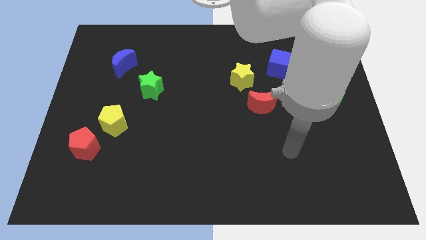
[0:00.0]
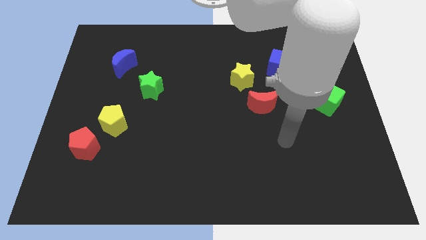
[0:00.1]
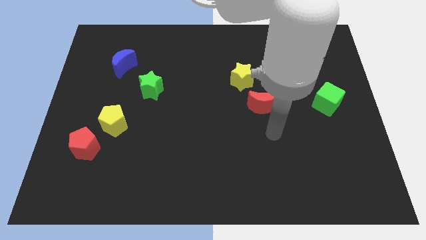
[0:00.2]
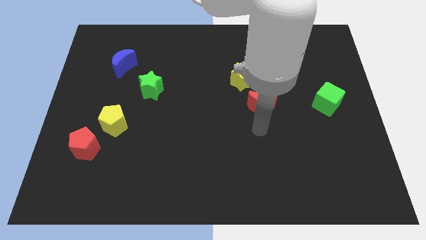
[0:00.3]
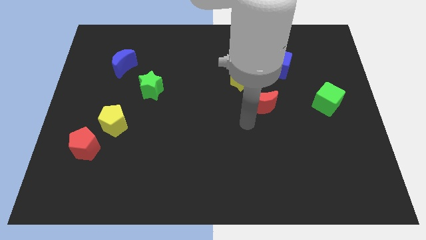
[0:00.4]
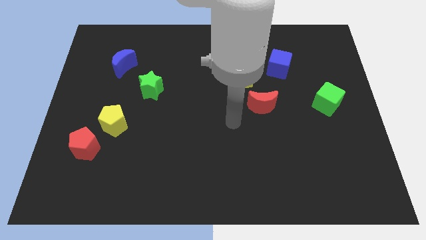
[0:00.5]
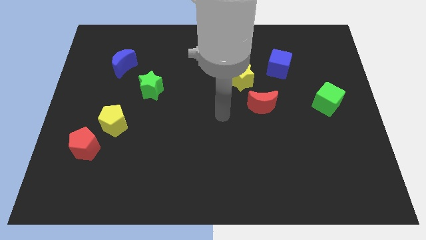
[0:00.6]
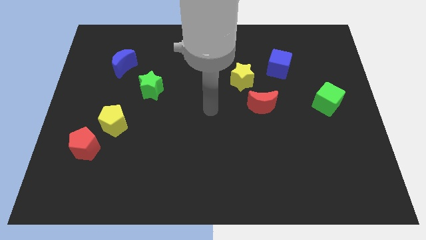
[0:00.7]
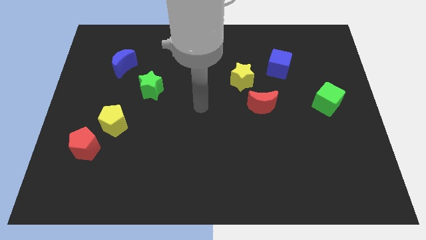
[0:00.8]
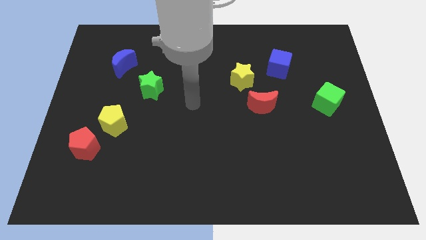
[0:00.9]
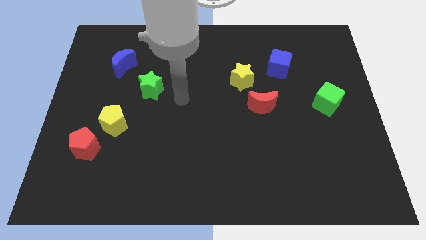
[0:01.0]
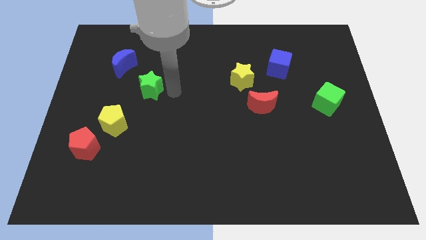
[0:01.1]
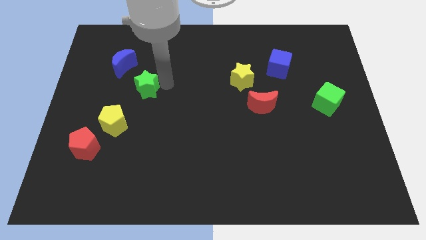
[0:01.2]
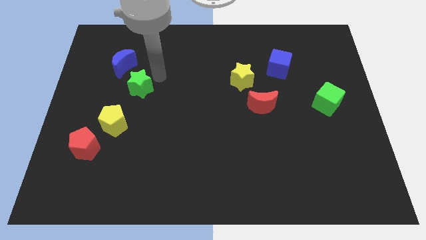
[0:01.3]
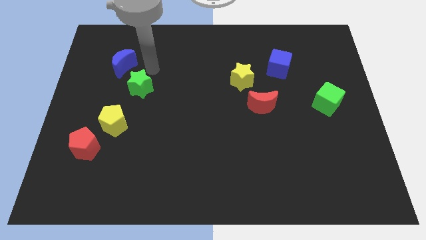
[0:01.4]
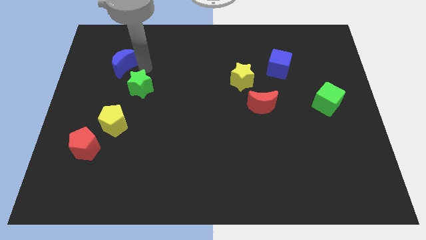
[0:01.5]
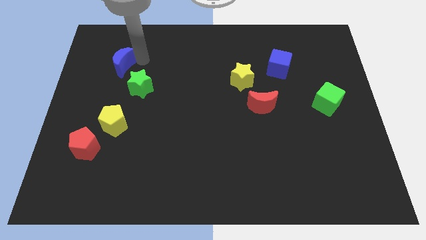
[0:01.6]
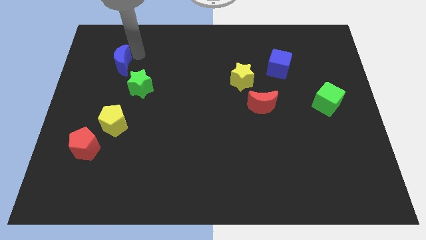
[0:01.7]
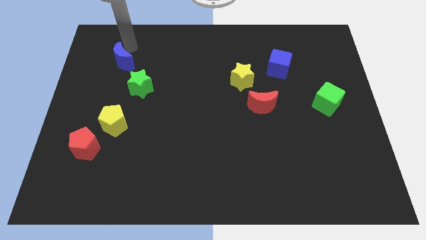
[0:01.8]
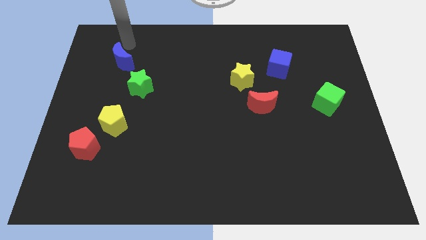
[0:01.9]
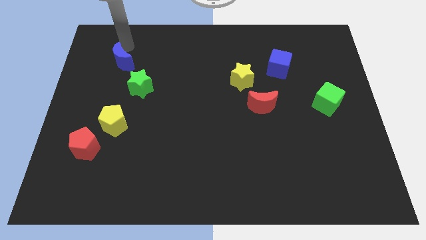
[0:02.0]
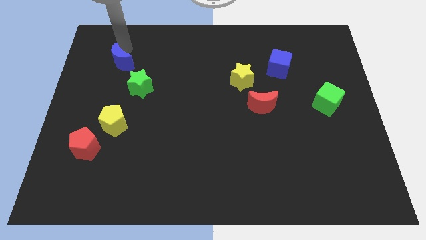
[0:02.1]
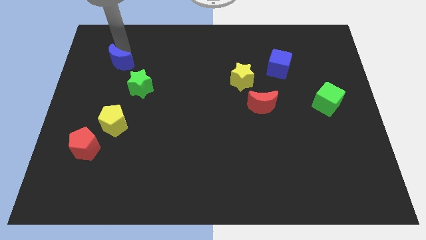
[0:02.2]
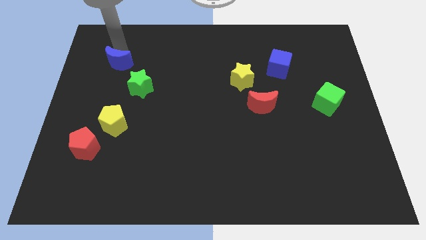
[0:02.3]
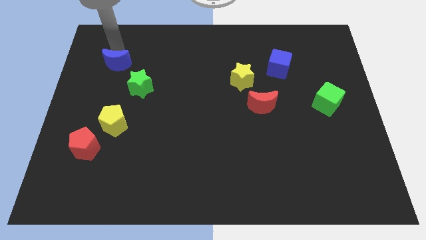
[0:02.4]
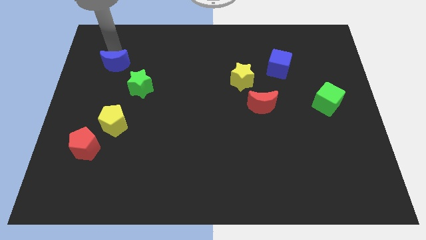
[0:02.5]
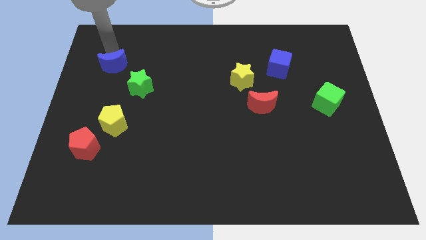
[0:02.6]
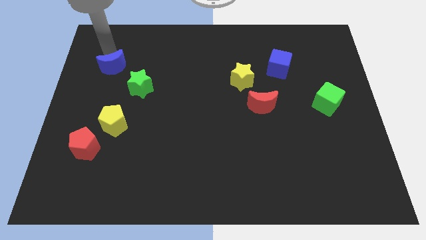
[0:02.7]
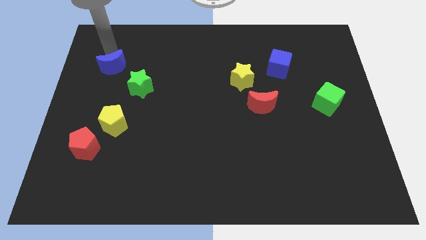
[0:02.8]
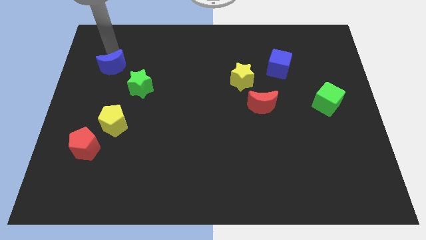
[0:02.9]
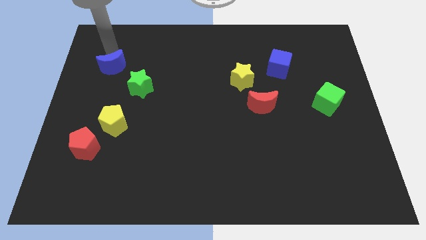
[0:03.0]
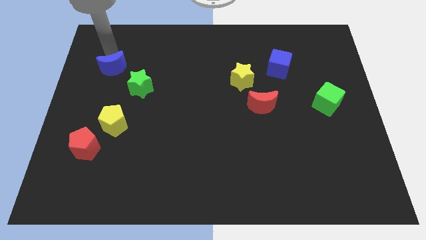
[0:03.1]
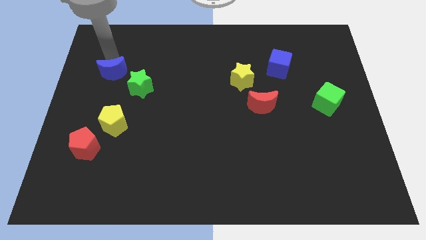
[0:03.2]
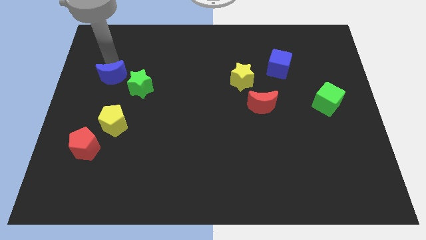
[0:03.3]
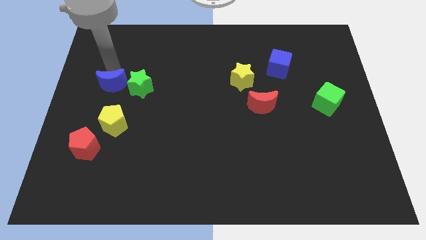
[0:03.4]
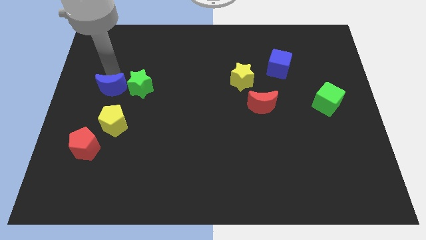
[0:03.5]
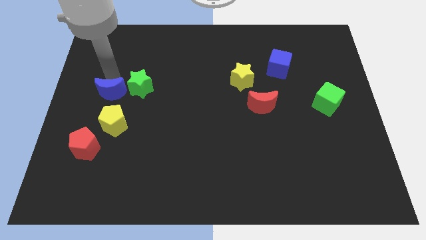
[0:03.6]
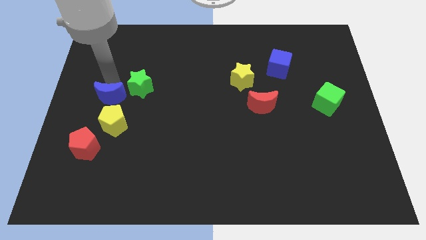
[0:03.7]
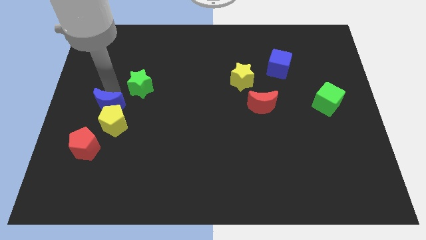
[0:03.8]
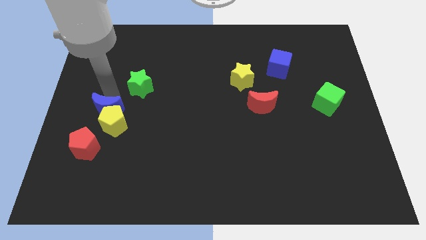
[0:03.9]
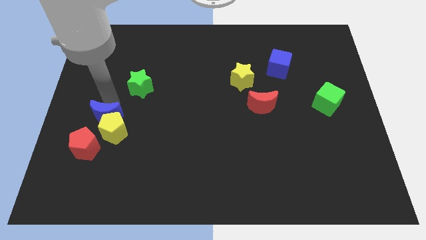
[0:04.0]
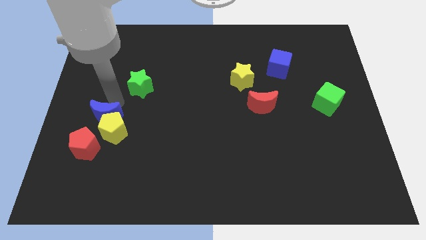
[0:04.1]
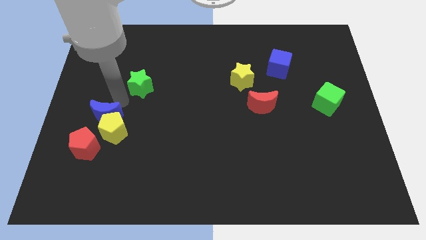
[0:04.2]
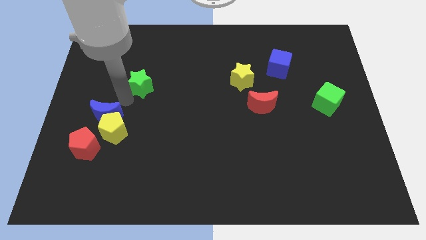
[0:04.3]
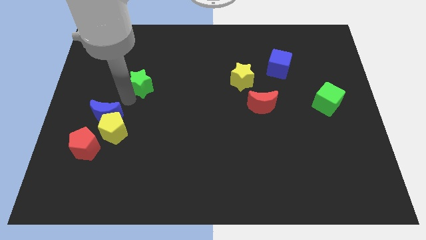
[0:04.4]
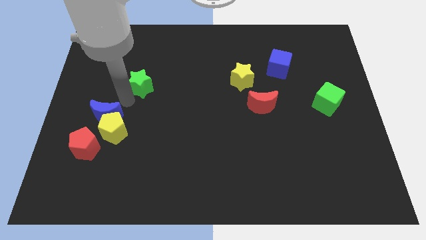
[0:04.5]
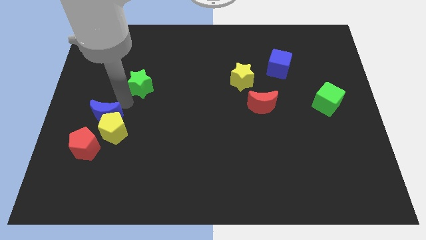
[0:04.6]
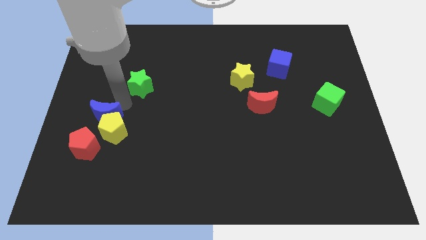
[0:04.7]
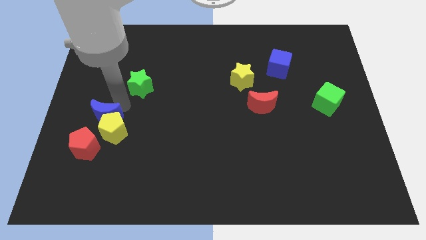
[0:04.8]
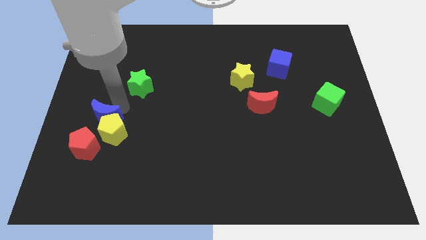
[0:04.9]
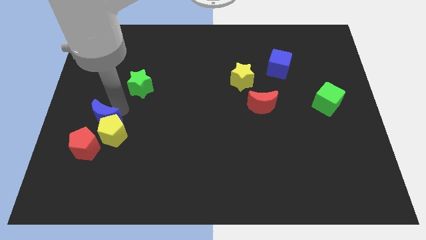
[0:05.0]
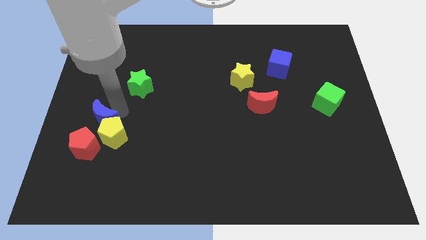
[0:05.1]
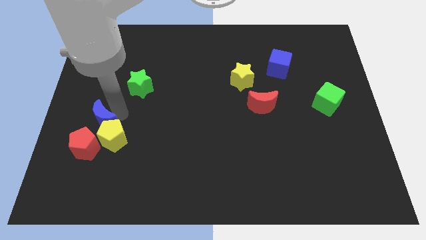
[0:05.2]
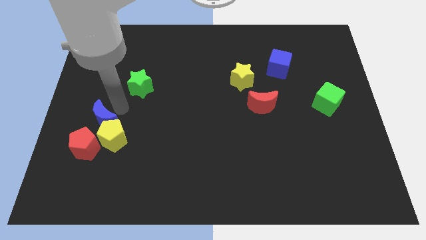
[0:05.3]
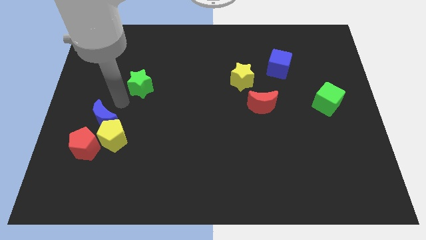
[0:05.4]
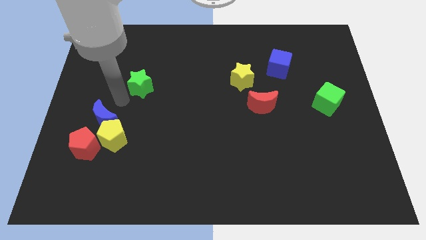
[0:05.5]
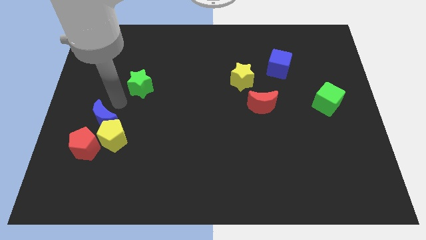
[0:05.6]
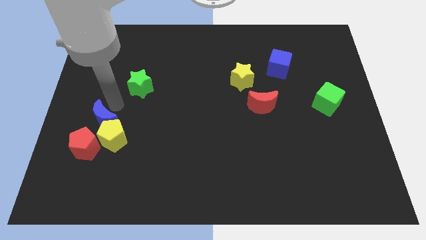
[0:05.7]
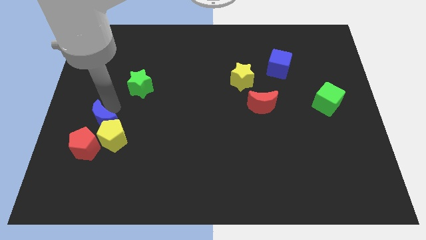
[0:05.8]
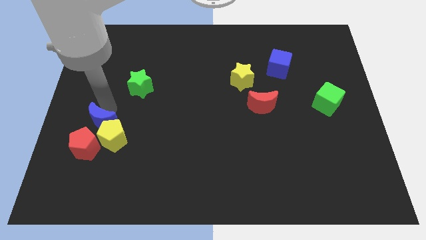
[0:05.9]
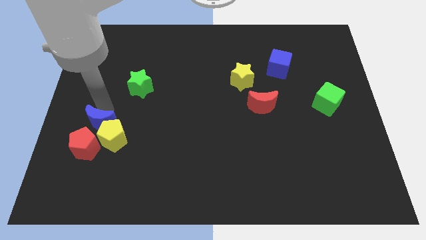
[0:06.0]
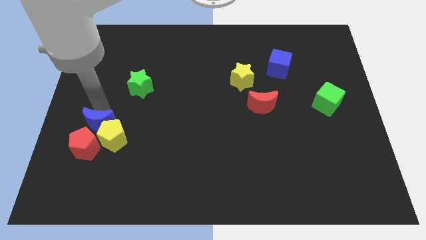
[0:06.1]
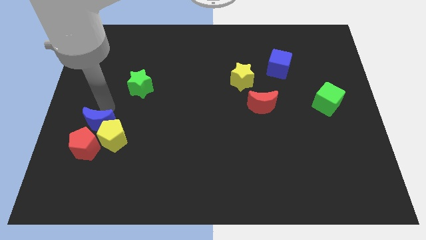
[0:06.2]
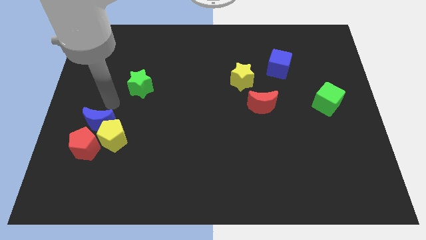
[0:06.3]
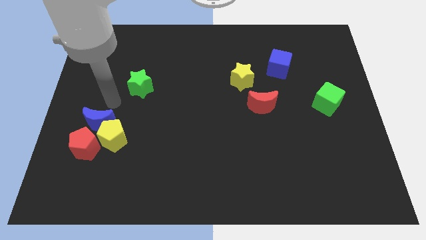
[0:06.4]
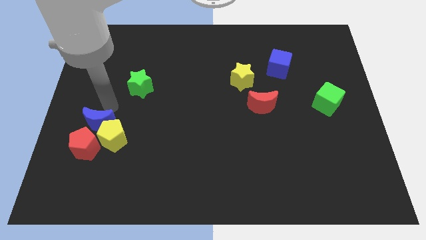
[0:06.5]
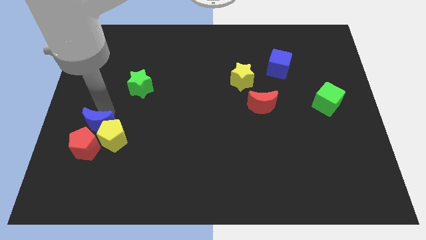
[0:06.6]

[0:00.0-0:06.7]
slide the blue moon close to the red pentagon

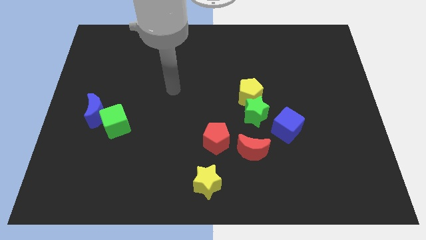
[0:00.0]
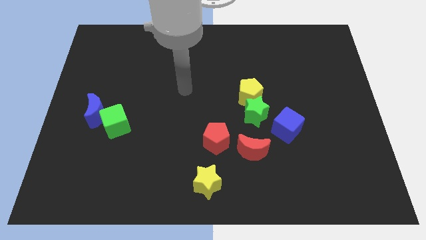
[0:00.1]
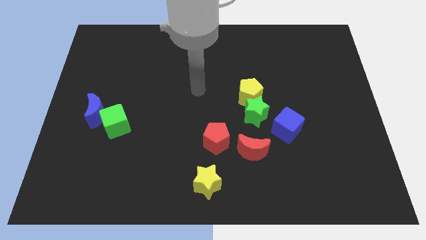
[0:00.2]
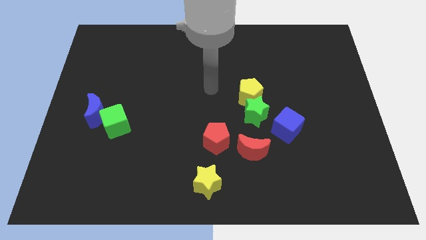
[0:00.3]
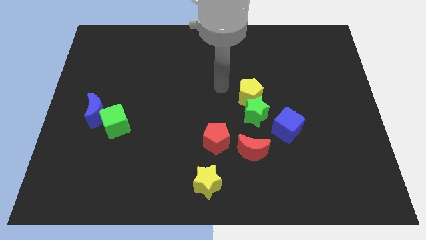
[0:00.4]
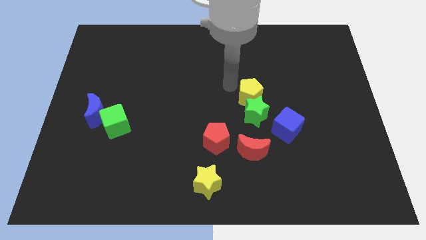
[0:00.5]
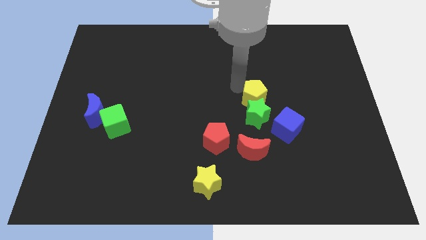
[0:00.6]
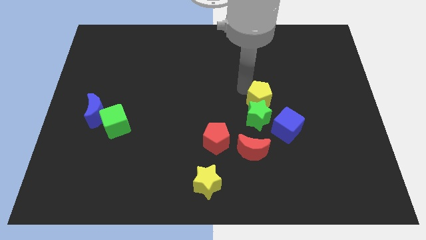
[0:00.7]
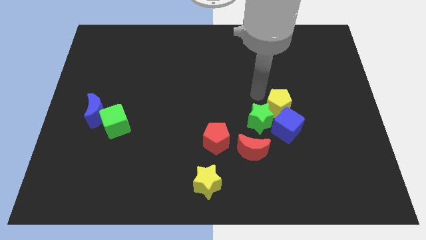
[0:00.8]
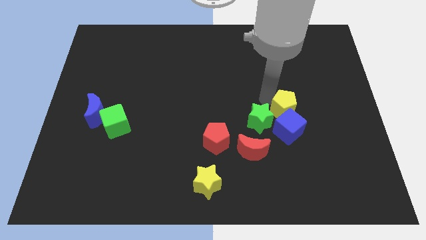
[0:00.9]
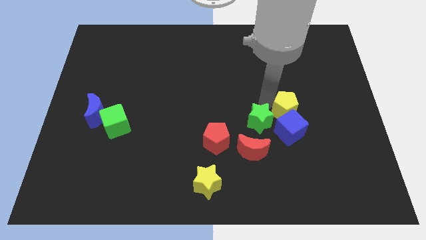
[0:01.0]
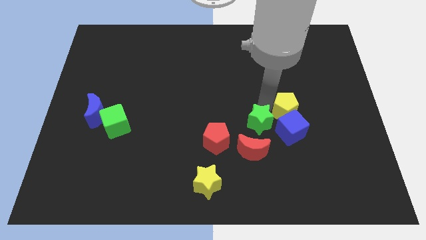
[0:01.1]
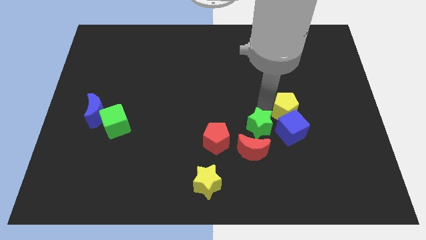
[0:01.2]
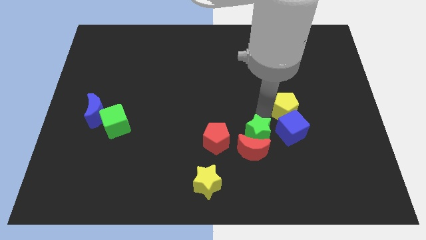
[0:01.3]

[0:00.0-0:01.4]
move the green star to the red moon

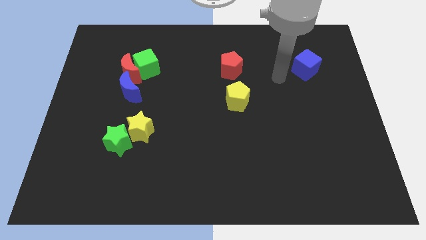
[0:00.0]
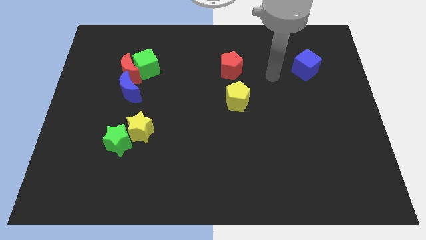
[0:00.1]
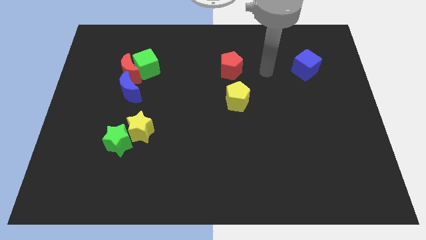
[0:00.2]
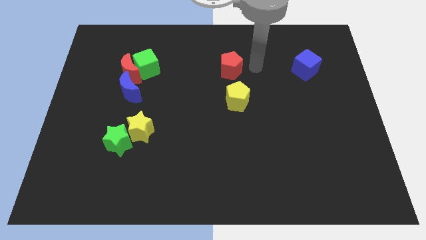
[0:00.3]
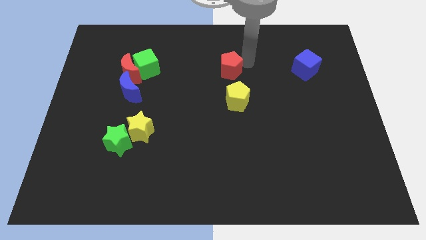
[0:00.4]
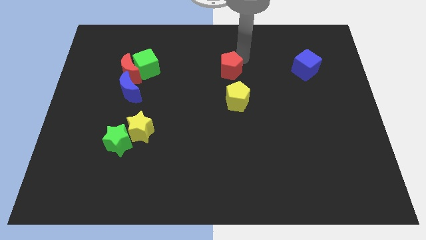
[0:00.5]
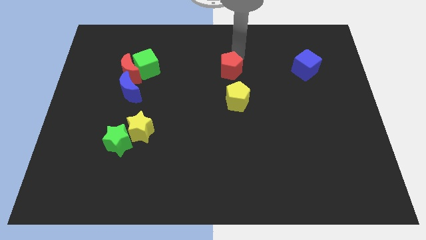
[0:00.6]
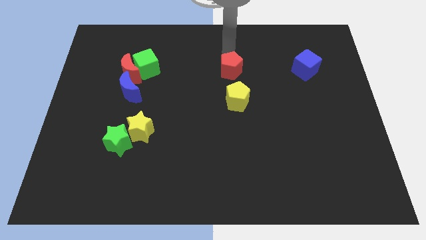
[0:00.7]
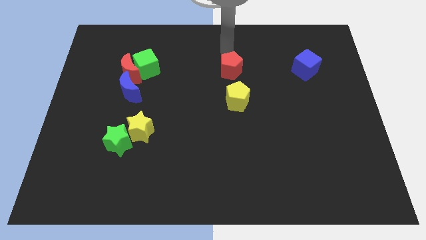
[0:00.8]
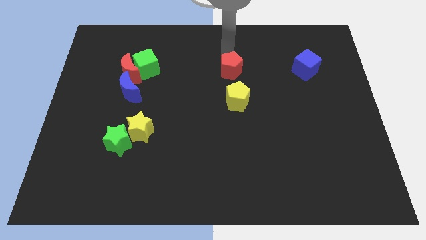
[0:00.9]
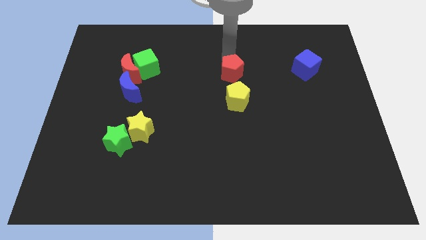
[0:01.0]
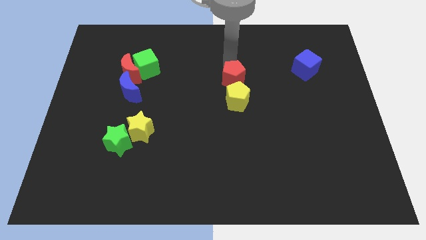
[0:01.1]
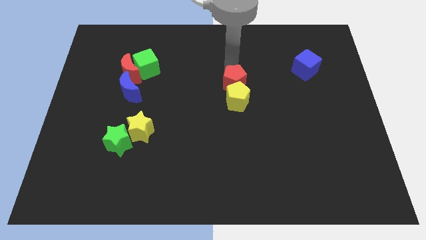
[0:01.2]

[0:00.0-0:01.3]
put the red pentagon to the yellow pentagon
